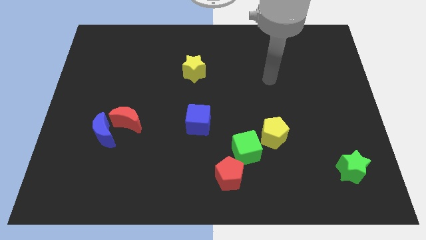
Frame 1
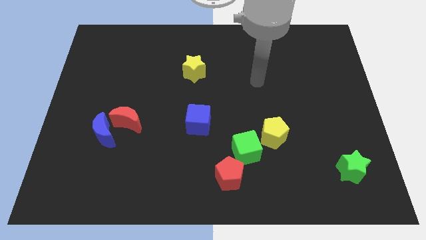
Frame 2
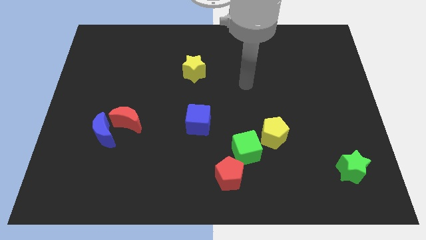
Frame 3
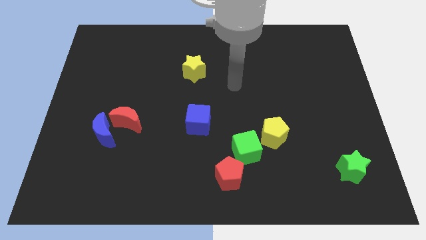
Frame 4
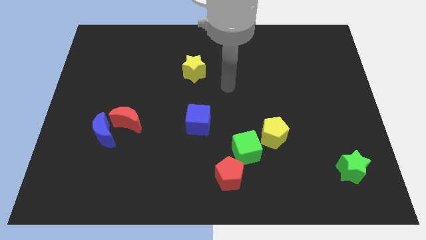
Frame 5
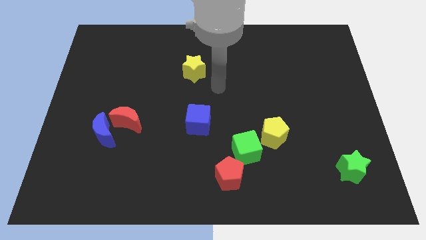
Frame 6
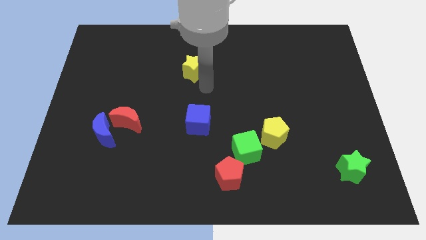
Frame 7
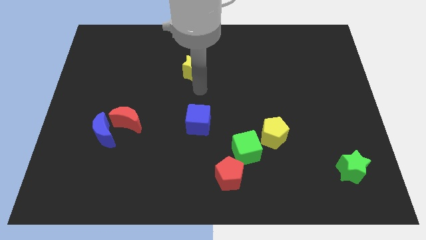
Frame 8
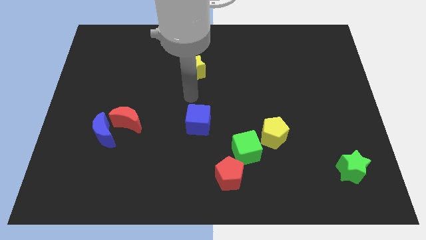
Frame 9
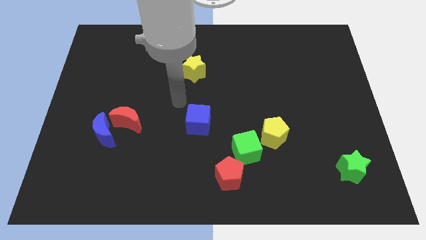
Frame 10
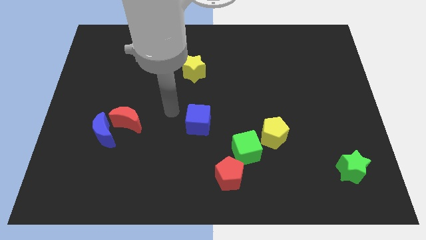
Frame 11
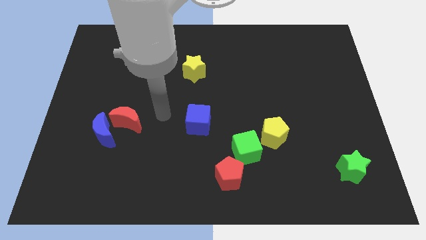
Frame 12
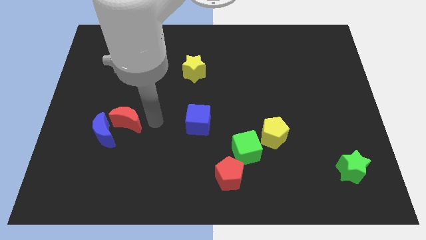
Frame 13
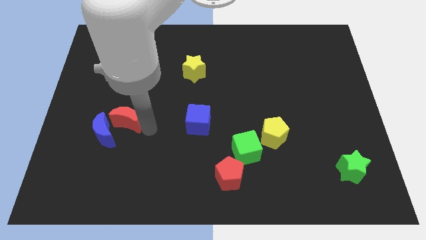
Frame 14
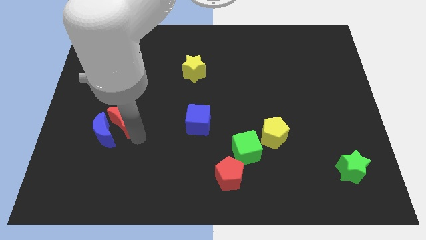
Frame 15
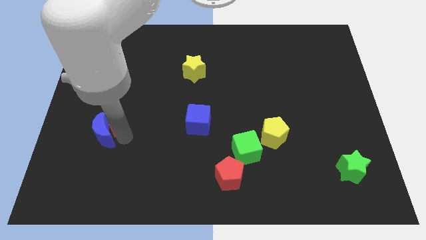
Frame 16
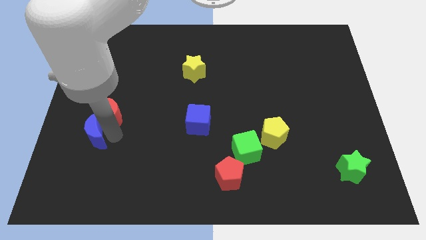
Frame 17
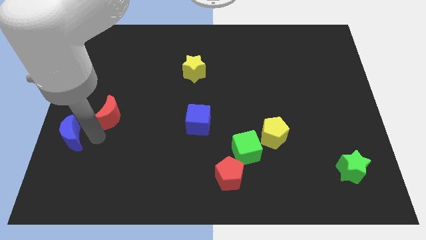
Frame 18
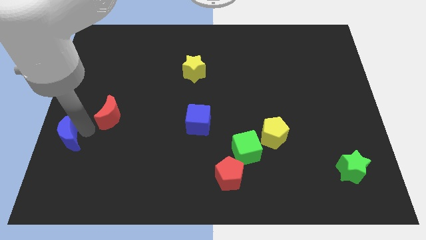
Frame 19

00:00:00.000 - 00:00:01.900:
separate the red moon from the blue moon

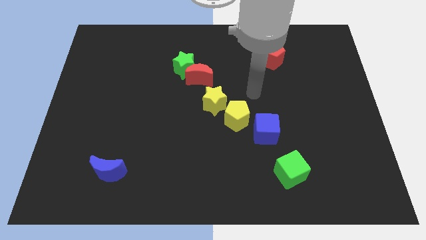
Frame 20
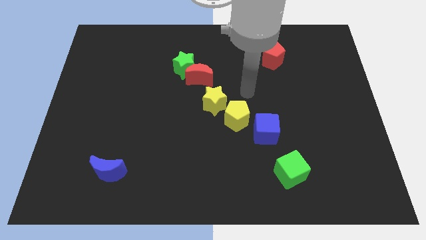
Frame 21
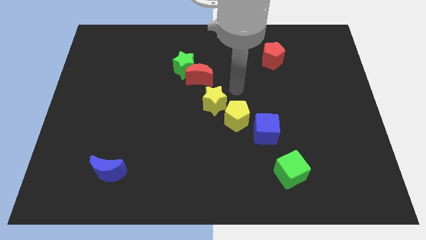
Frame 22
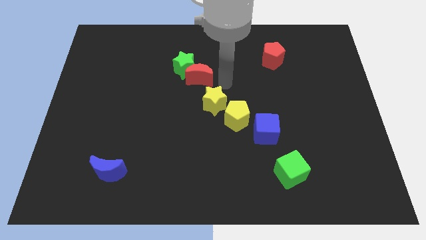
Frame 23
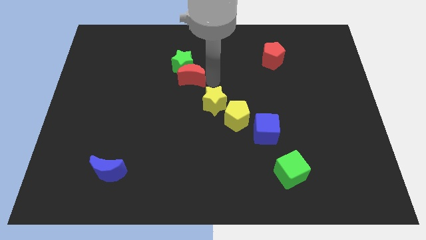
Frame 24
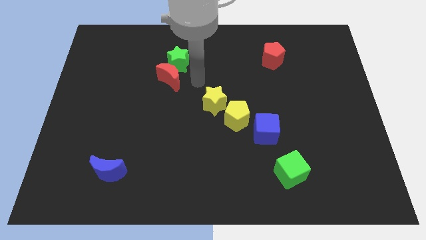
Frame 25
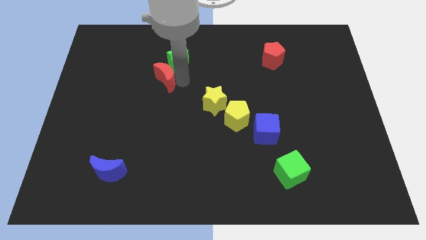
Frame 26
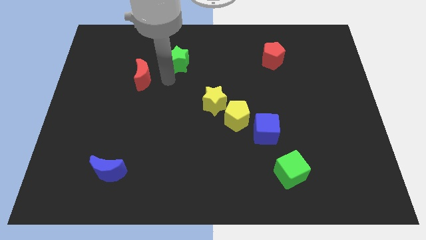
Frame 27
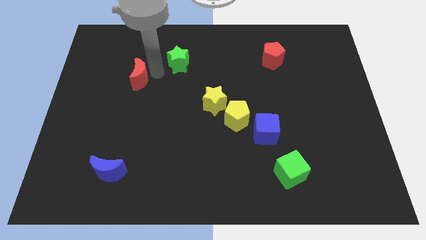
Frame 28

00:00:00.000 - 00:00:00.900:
move the green star away from the red moon

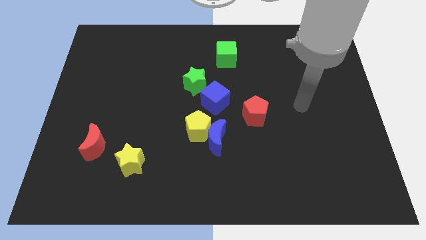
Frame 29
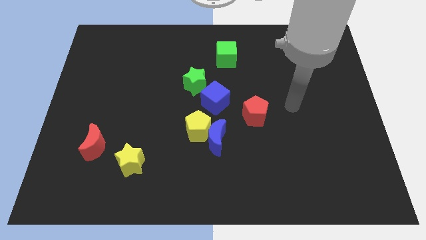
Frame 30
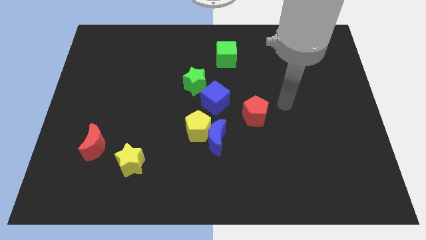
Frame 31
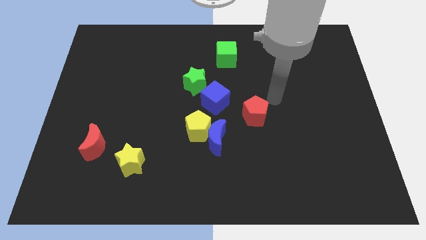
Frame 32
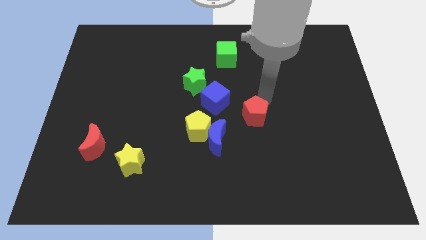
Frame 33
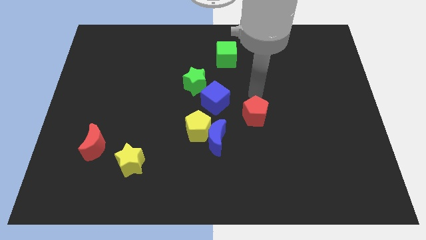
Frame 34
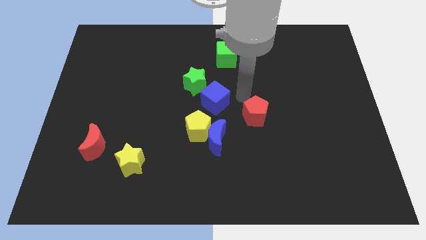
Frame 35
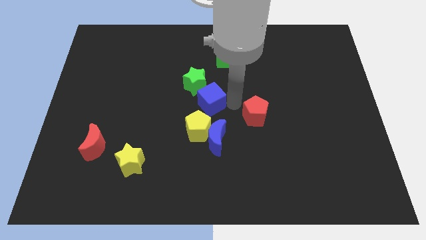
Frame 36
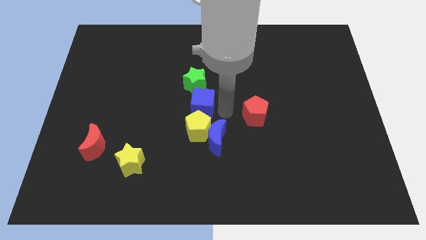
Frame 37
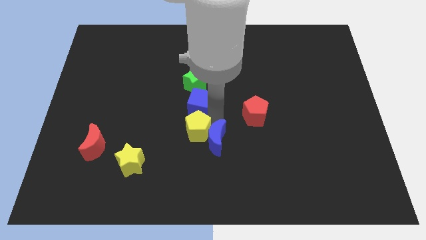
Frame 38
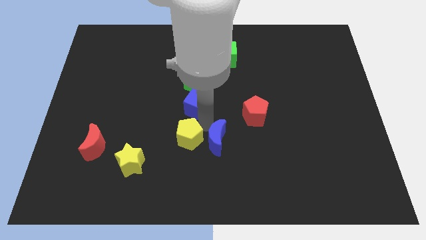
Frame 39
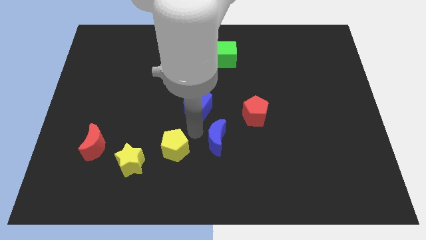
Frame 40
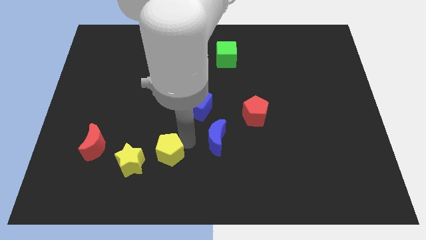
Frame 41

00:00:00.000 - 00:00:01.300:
move the blue moon away from the yellow pentagon

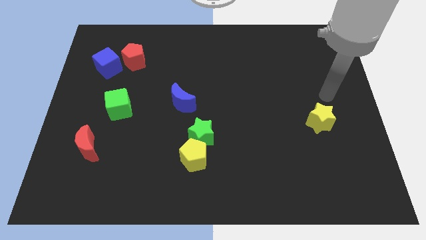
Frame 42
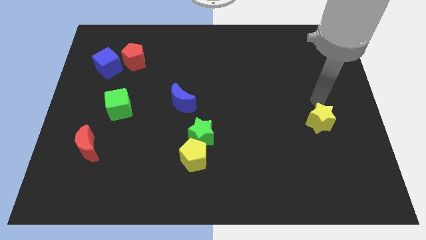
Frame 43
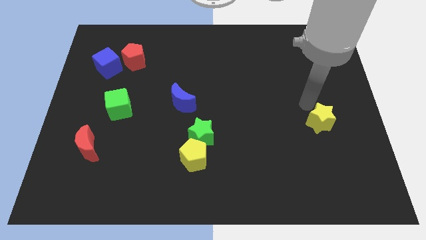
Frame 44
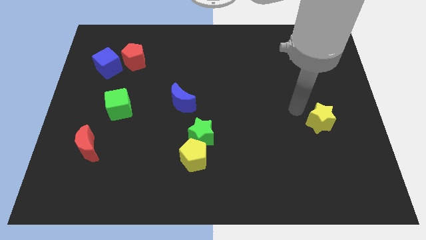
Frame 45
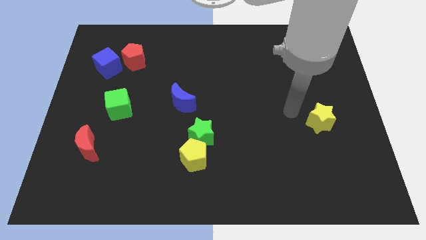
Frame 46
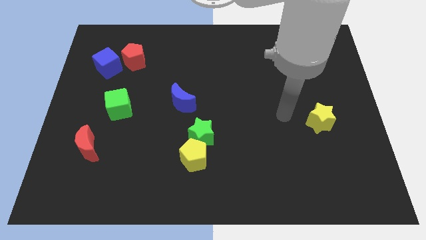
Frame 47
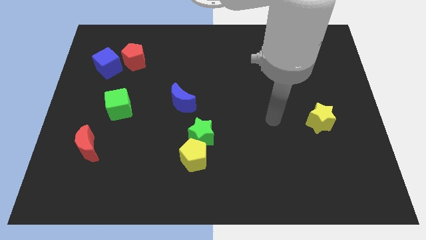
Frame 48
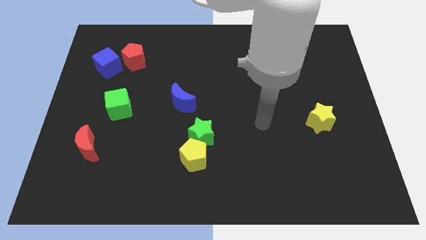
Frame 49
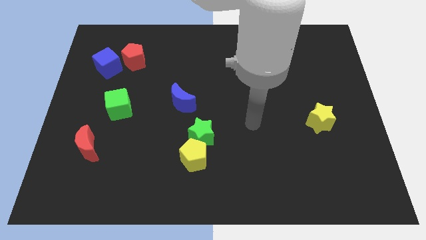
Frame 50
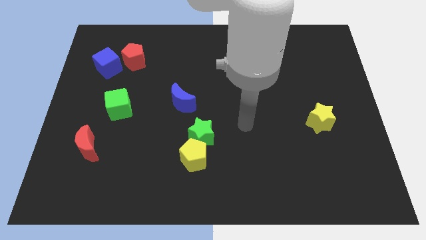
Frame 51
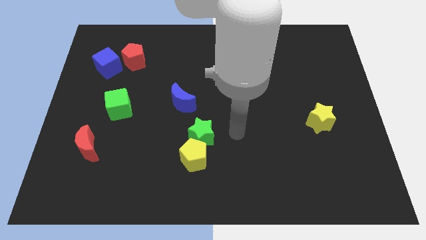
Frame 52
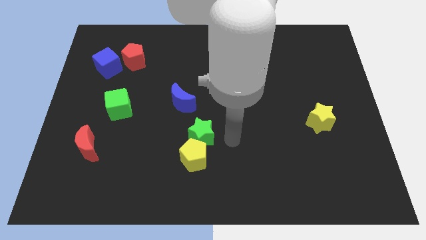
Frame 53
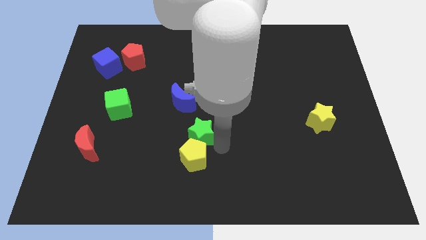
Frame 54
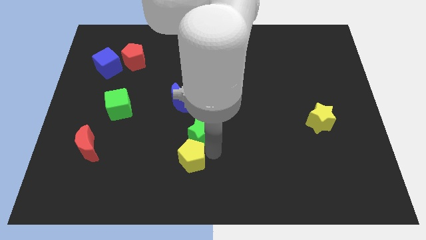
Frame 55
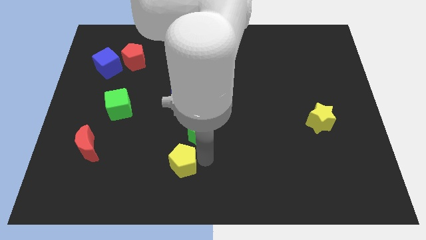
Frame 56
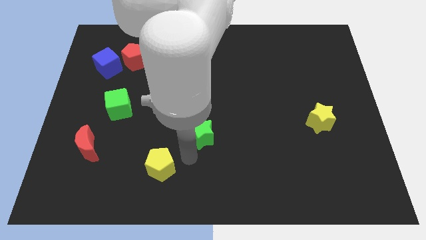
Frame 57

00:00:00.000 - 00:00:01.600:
move the green star away from the yellow pentagon

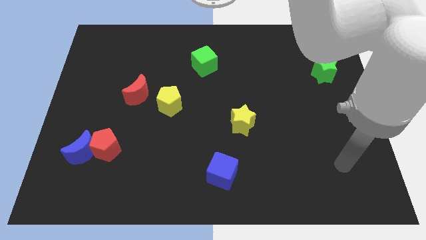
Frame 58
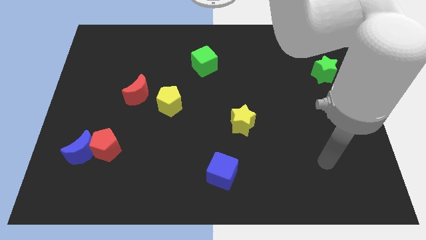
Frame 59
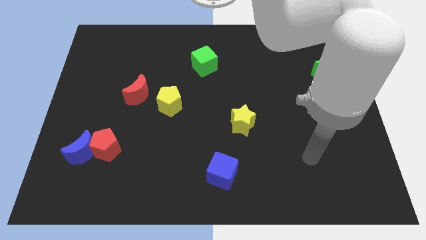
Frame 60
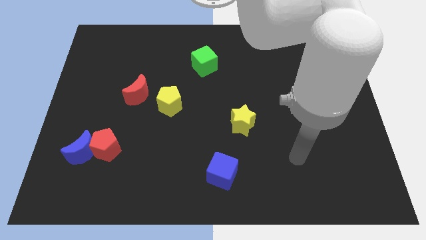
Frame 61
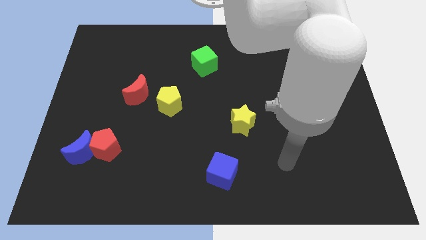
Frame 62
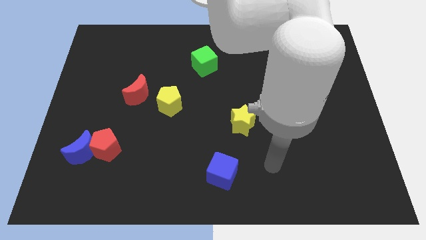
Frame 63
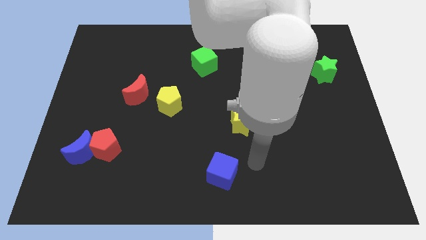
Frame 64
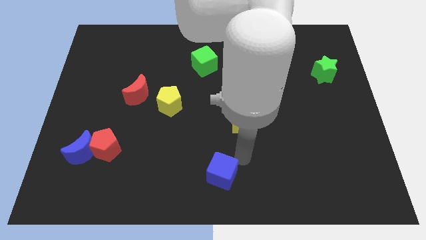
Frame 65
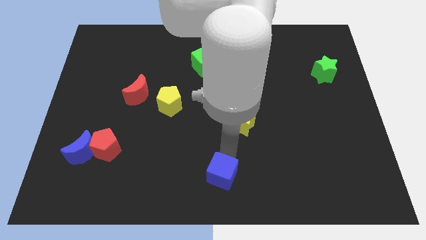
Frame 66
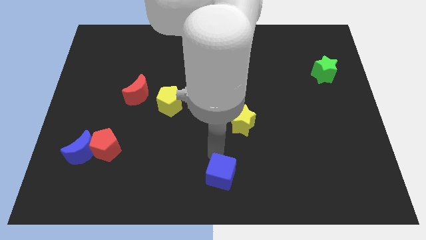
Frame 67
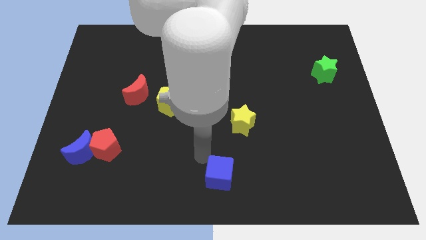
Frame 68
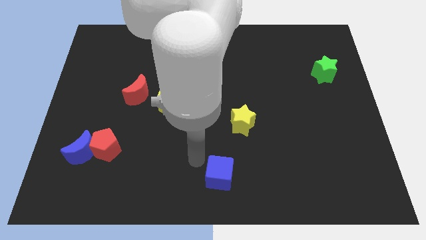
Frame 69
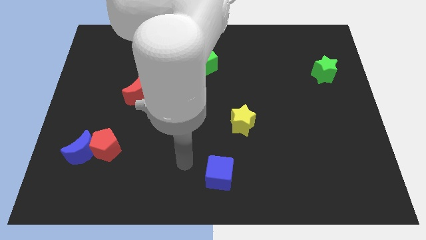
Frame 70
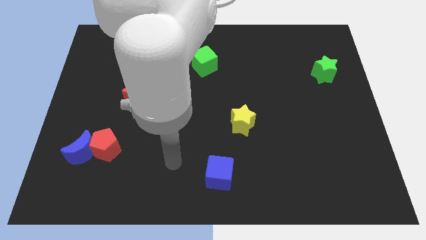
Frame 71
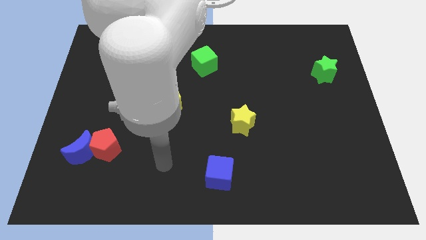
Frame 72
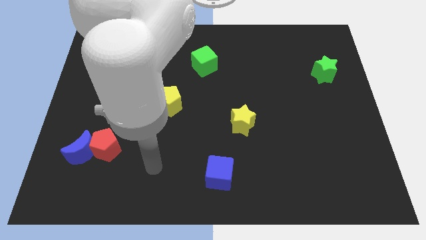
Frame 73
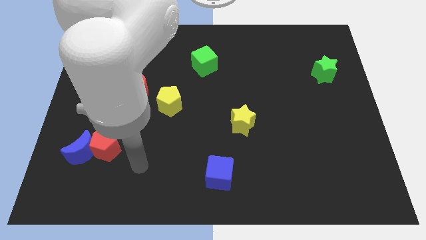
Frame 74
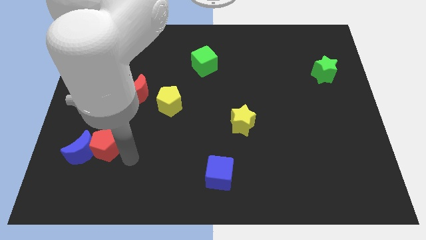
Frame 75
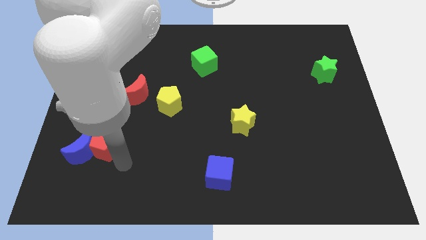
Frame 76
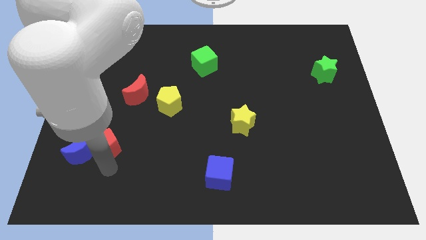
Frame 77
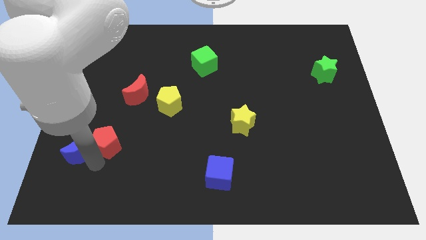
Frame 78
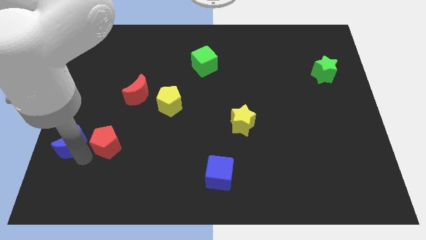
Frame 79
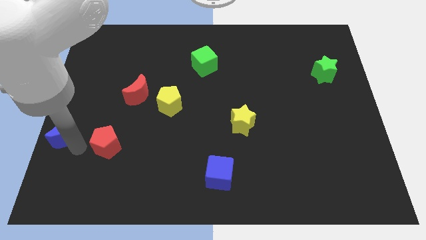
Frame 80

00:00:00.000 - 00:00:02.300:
separate the red pentagon from the blue moon

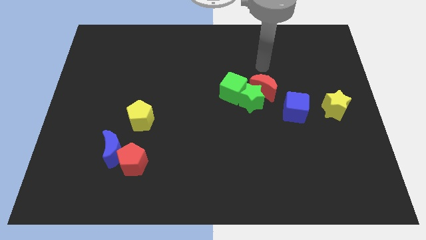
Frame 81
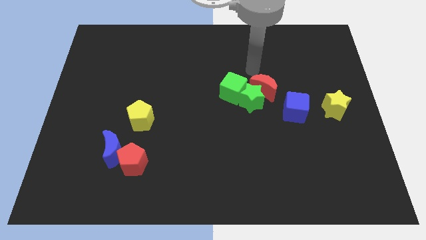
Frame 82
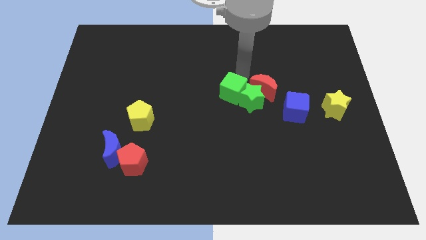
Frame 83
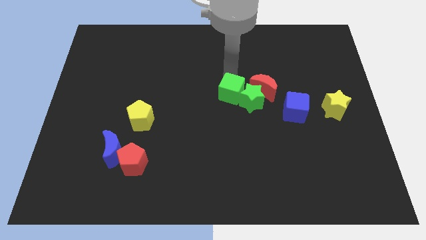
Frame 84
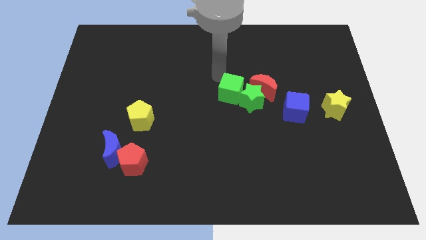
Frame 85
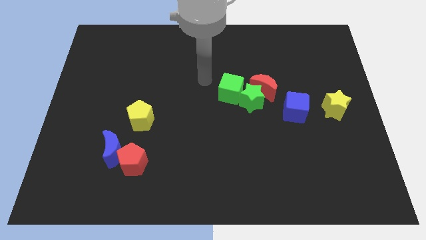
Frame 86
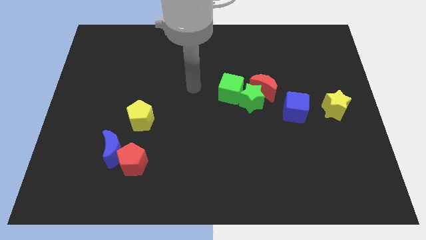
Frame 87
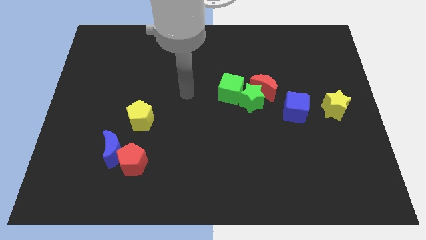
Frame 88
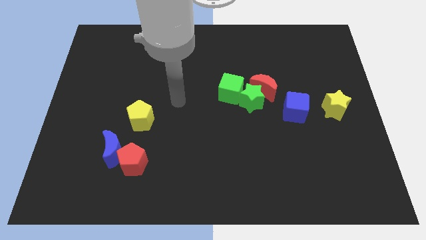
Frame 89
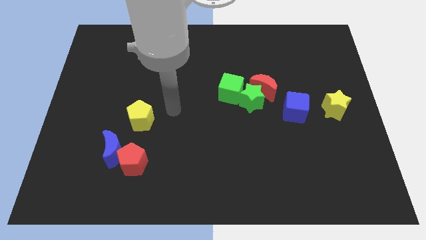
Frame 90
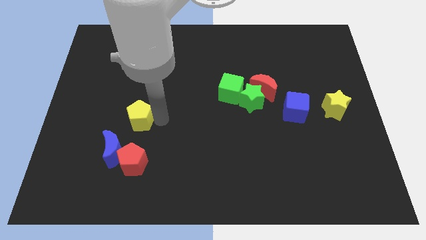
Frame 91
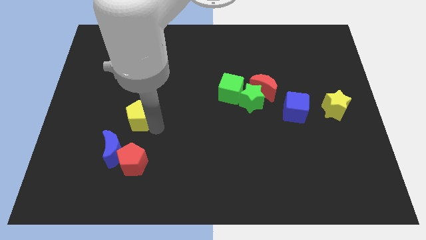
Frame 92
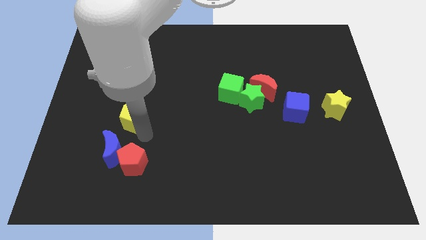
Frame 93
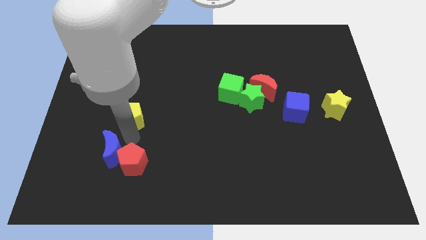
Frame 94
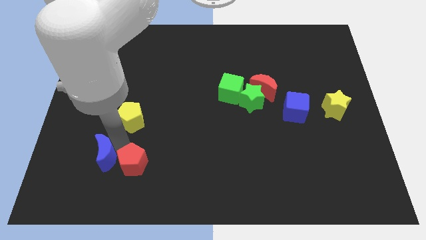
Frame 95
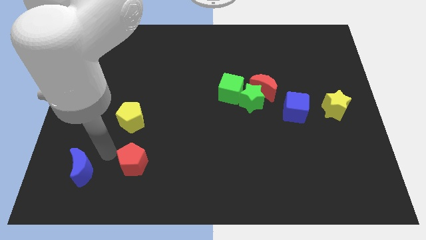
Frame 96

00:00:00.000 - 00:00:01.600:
move the red pentagon away from the blue moon
